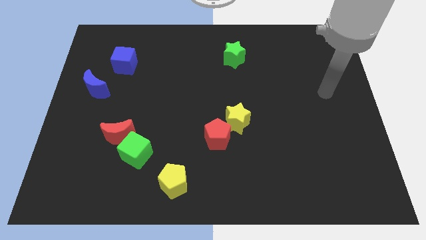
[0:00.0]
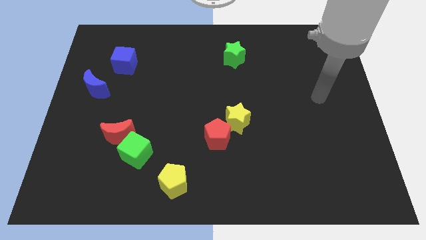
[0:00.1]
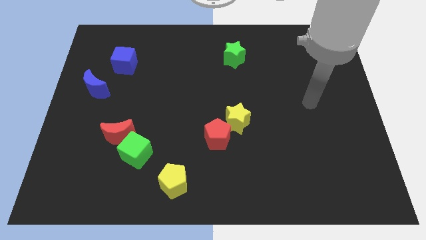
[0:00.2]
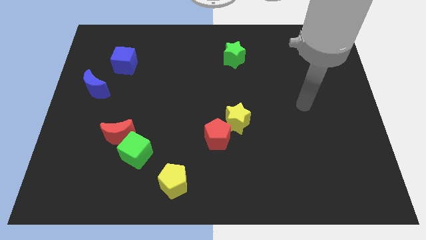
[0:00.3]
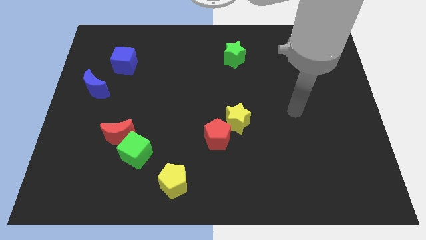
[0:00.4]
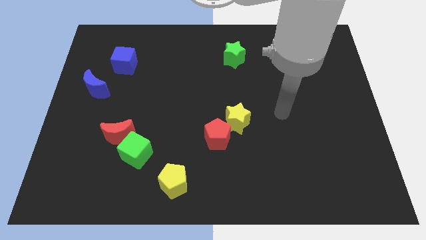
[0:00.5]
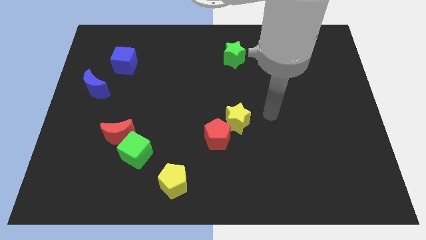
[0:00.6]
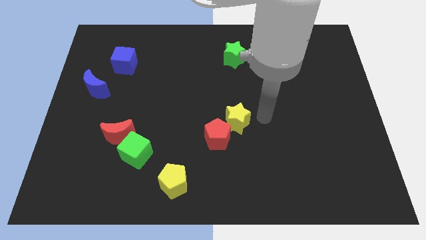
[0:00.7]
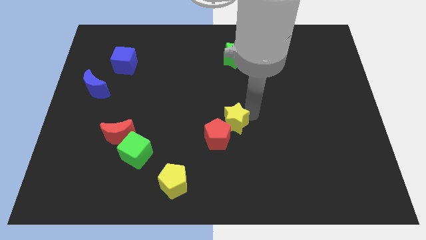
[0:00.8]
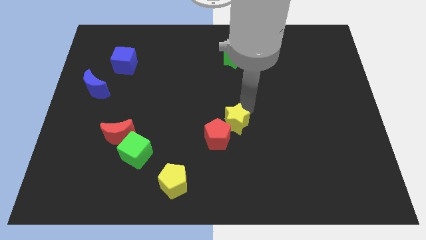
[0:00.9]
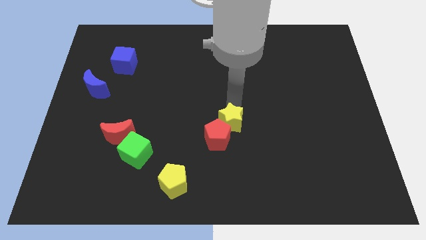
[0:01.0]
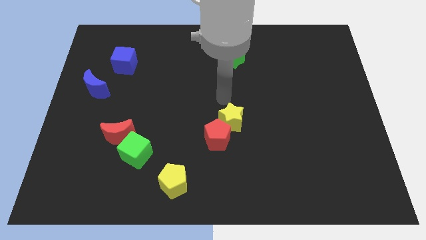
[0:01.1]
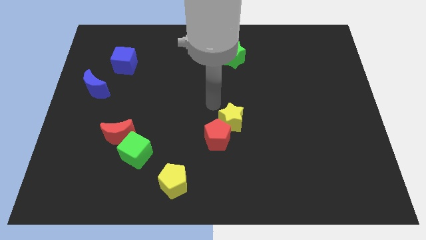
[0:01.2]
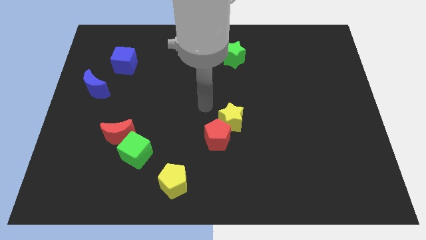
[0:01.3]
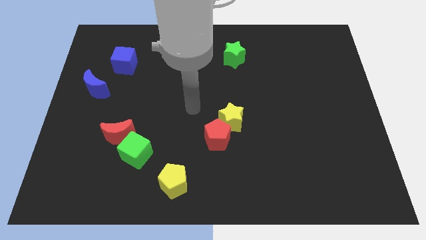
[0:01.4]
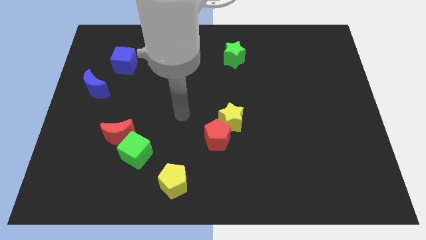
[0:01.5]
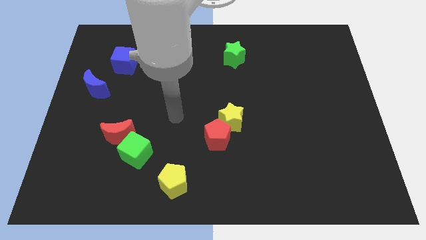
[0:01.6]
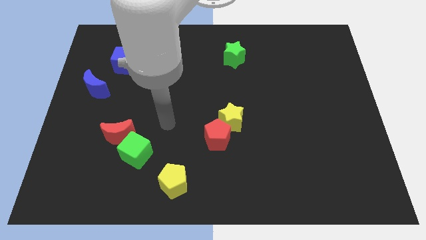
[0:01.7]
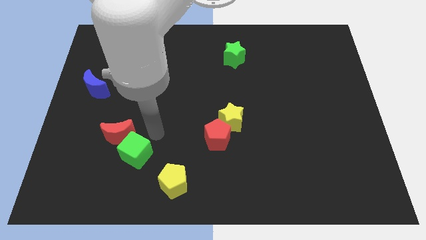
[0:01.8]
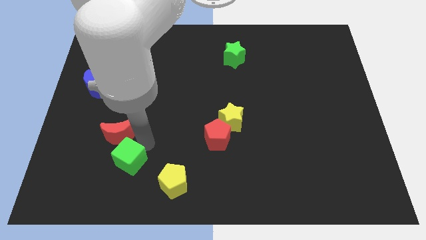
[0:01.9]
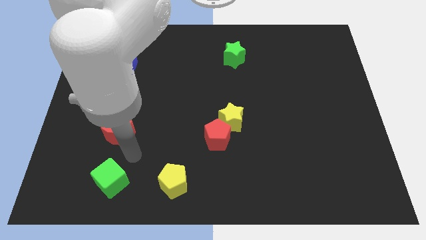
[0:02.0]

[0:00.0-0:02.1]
move the red moon away from the green cube

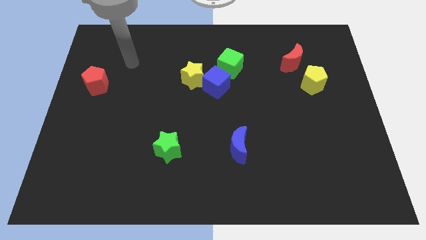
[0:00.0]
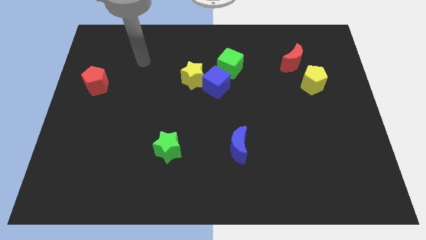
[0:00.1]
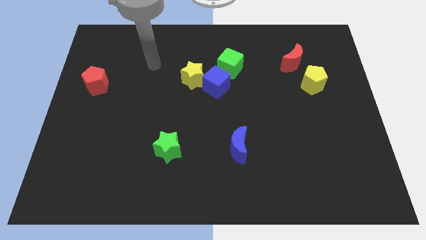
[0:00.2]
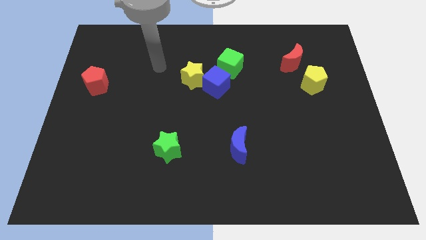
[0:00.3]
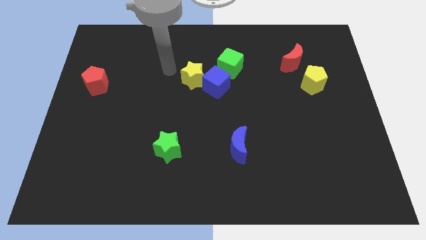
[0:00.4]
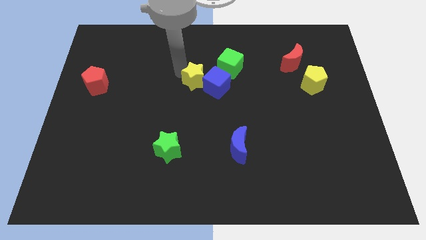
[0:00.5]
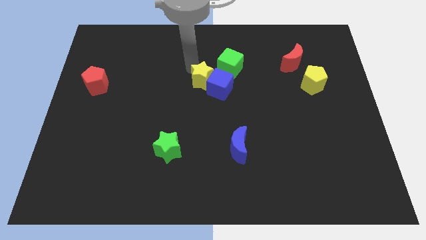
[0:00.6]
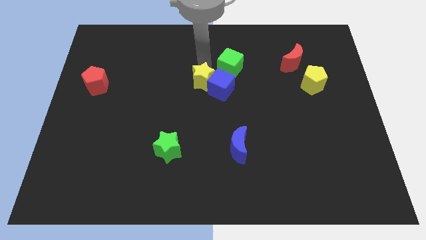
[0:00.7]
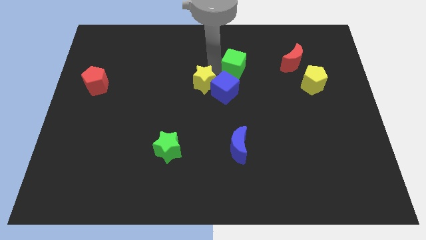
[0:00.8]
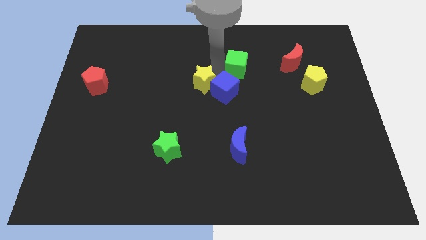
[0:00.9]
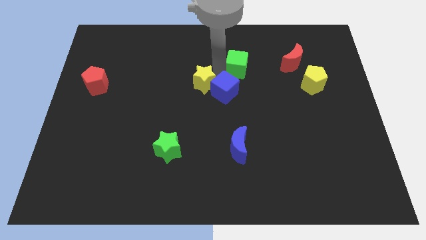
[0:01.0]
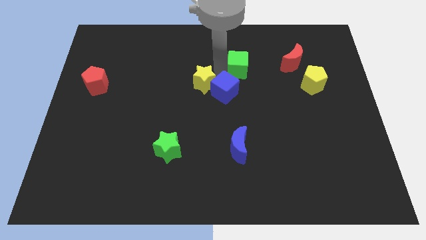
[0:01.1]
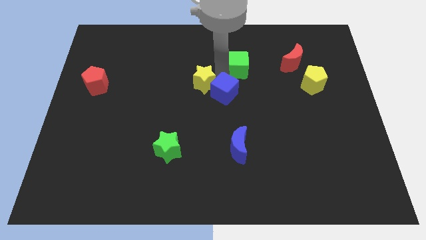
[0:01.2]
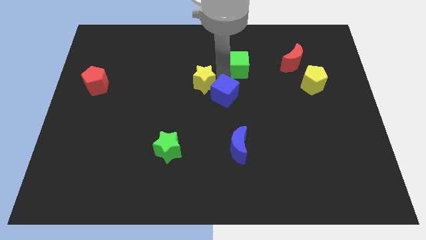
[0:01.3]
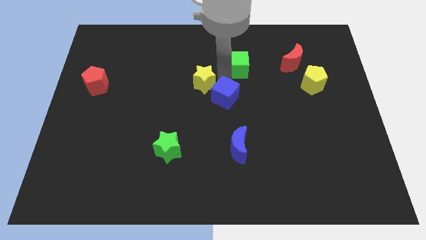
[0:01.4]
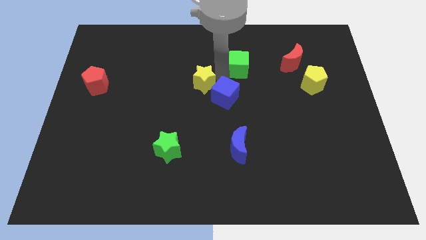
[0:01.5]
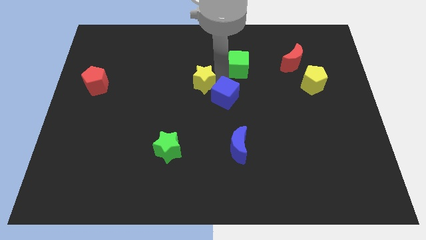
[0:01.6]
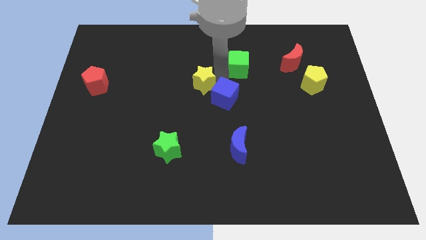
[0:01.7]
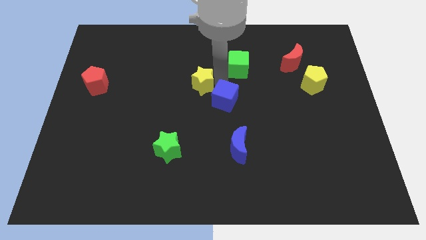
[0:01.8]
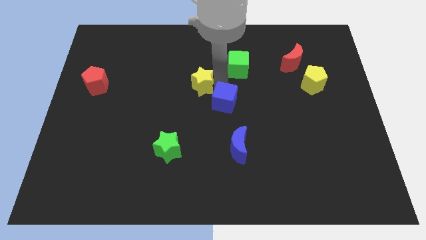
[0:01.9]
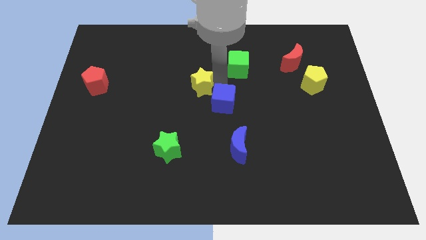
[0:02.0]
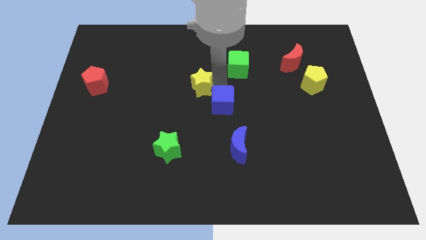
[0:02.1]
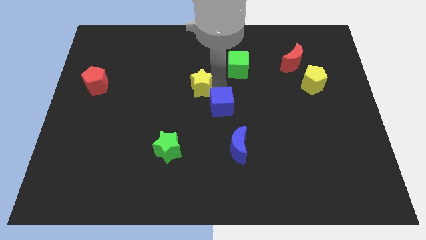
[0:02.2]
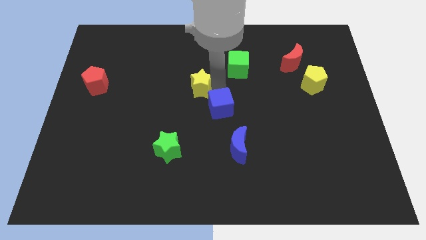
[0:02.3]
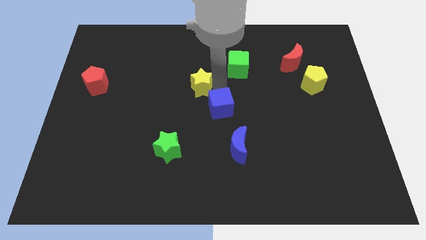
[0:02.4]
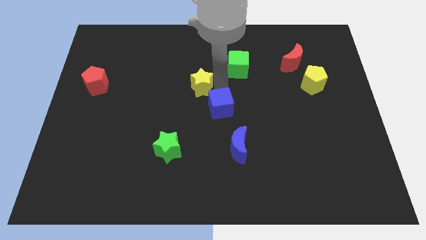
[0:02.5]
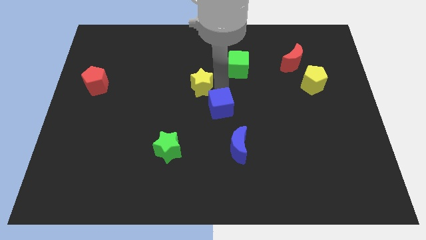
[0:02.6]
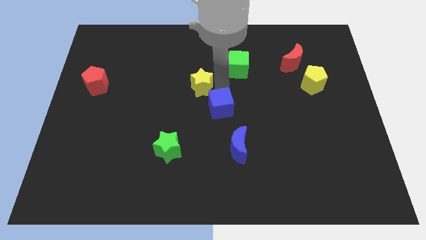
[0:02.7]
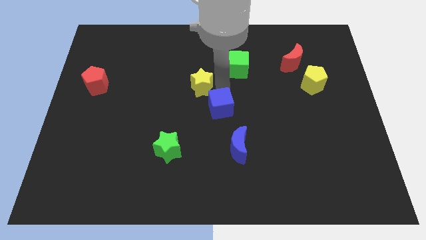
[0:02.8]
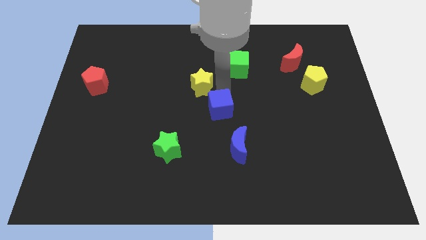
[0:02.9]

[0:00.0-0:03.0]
move the blue cube away from the yellow star and green cube

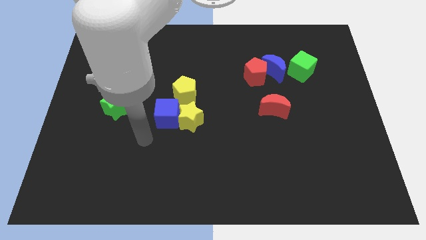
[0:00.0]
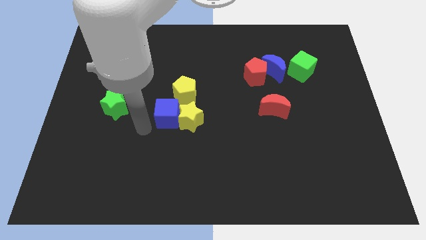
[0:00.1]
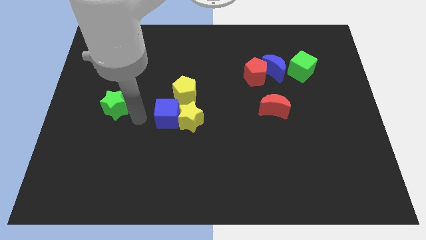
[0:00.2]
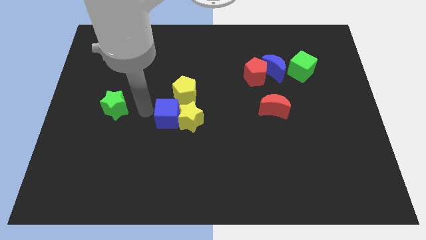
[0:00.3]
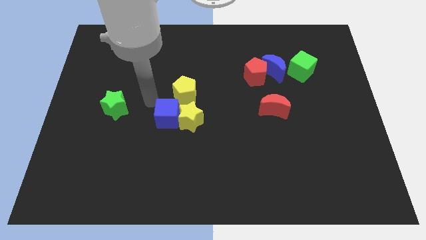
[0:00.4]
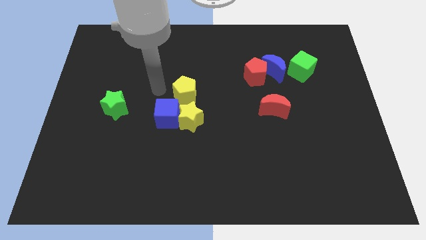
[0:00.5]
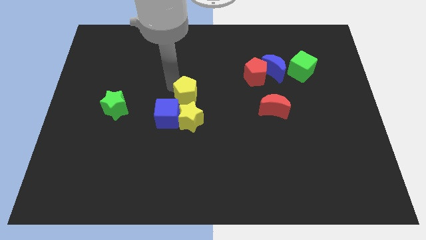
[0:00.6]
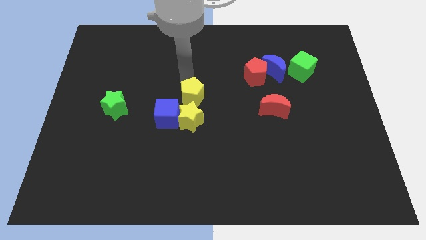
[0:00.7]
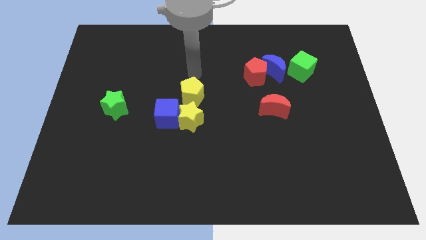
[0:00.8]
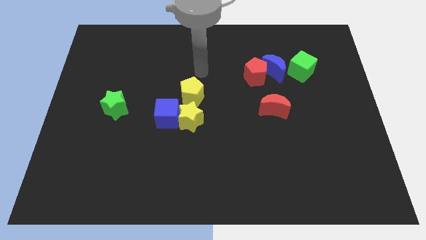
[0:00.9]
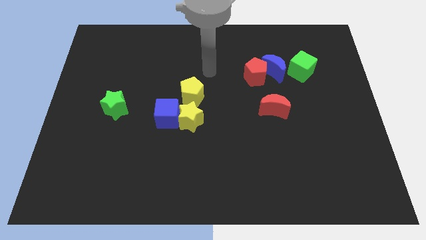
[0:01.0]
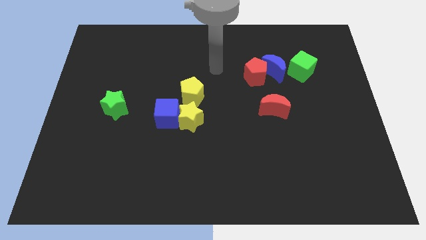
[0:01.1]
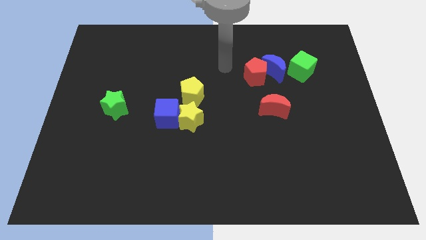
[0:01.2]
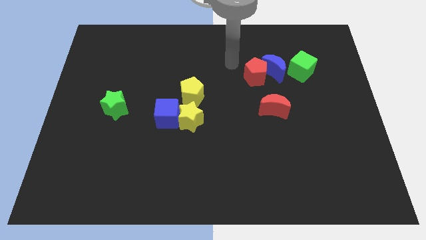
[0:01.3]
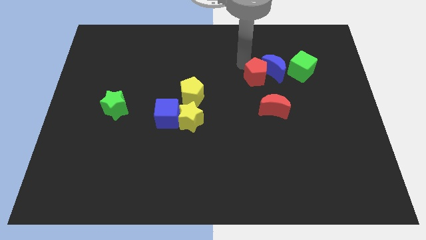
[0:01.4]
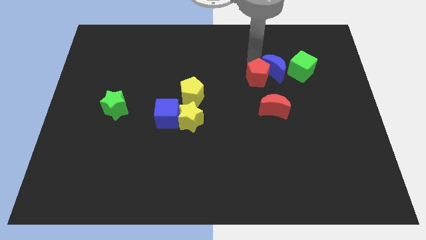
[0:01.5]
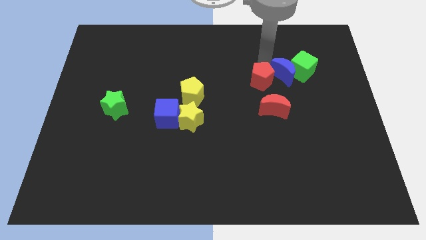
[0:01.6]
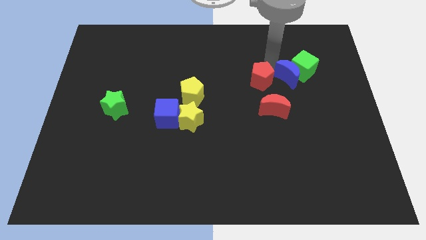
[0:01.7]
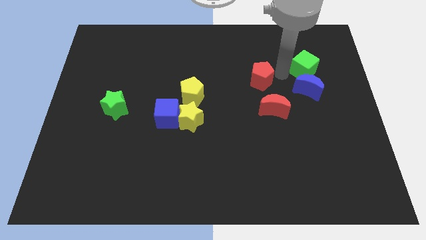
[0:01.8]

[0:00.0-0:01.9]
move the red pentagon away from the blue moon

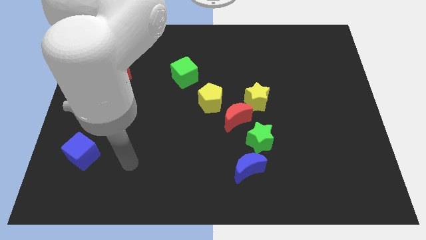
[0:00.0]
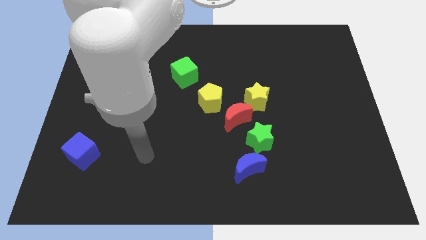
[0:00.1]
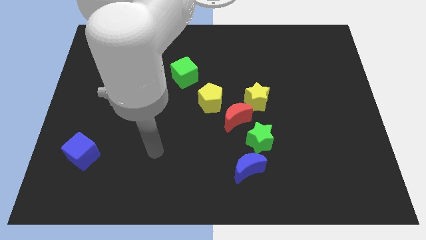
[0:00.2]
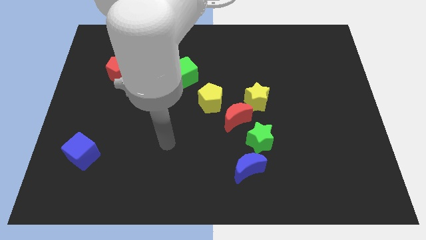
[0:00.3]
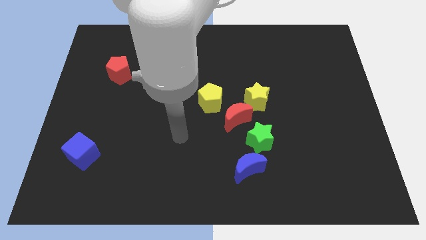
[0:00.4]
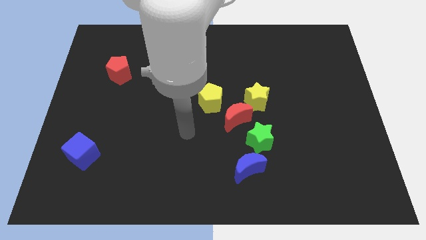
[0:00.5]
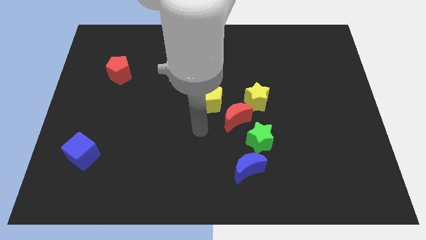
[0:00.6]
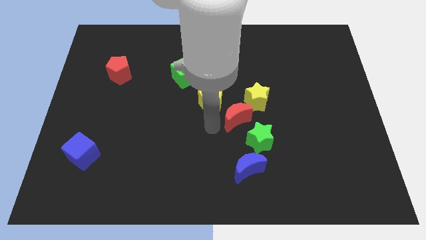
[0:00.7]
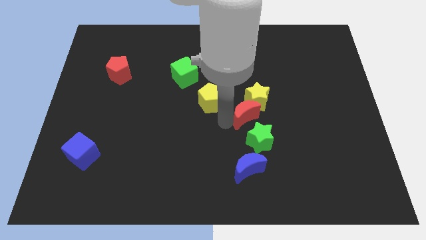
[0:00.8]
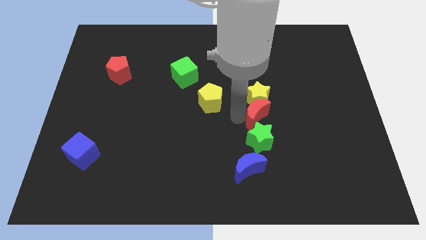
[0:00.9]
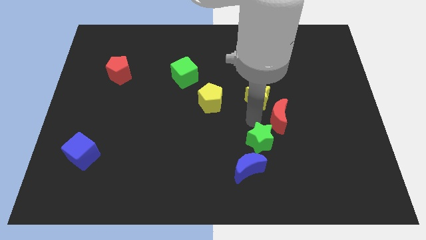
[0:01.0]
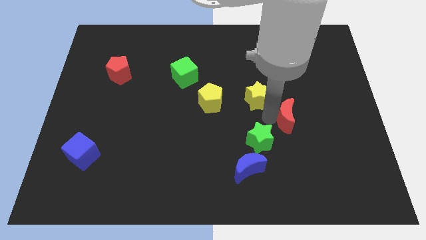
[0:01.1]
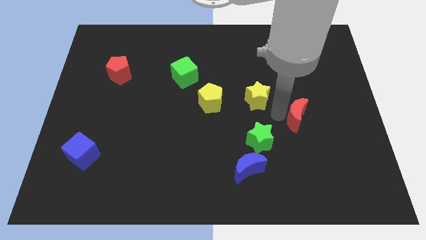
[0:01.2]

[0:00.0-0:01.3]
move the yellow star away from the red moon

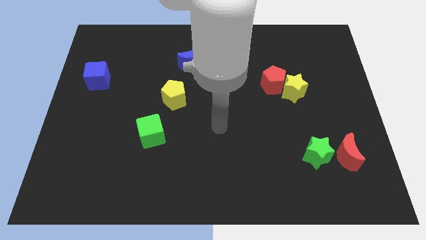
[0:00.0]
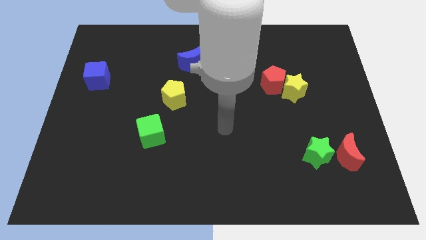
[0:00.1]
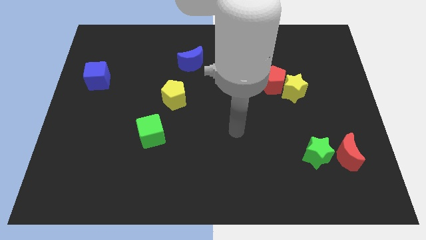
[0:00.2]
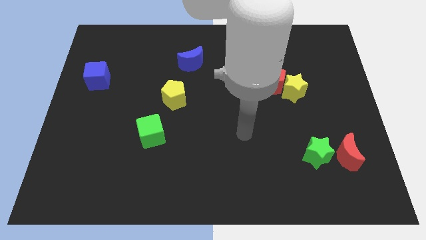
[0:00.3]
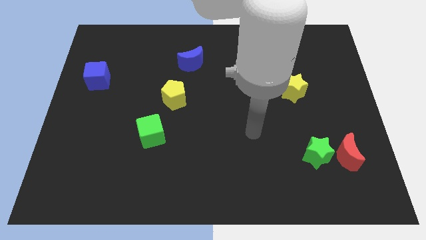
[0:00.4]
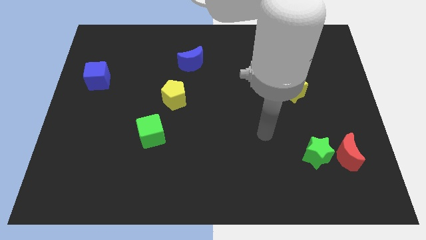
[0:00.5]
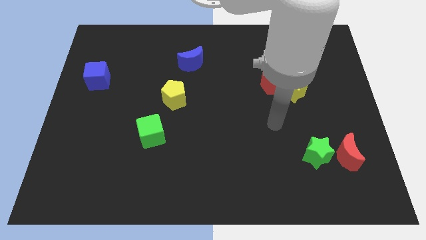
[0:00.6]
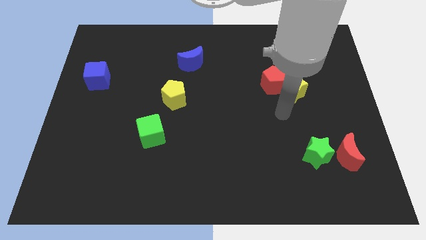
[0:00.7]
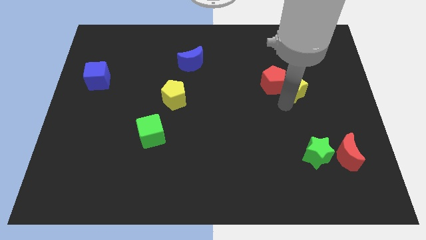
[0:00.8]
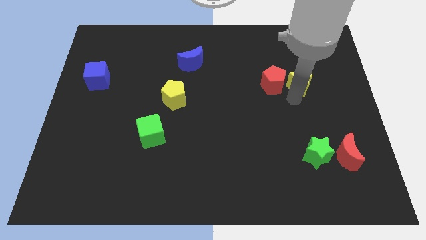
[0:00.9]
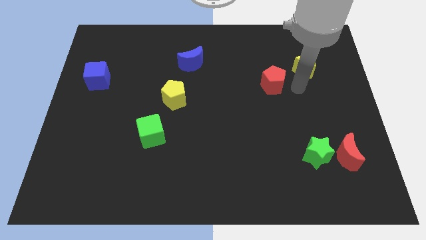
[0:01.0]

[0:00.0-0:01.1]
separate the red pentagon from the yellow star
